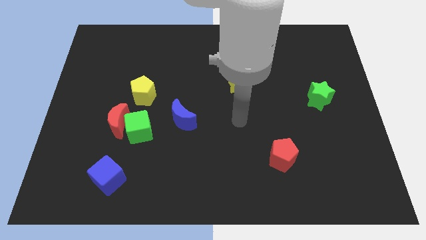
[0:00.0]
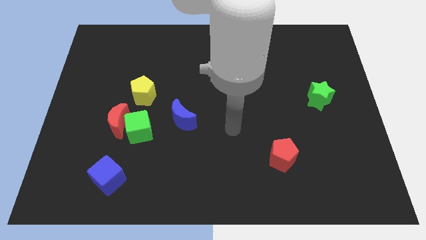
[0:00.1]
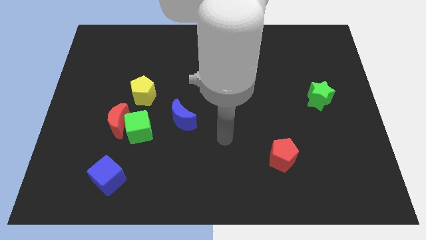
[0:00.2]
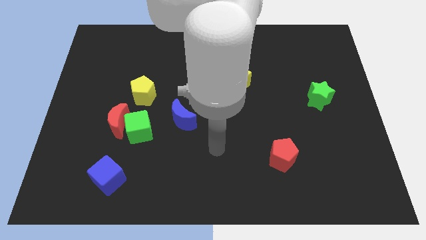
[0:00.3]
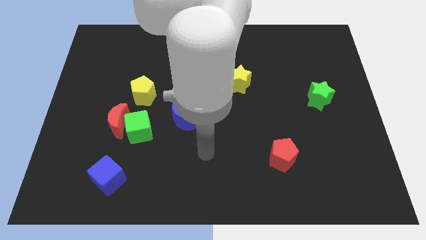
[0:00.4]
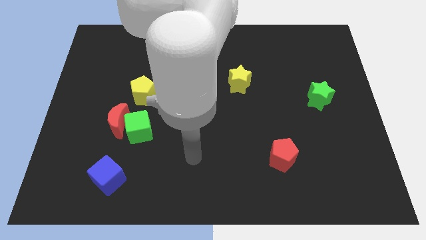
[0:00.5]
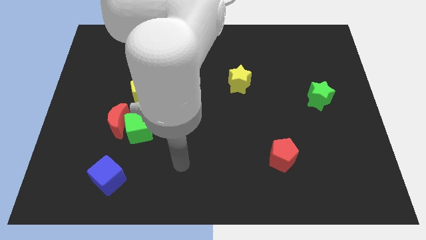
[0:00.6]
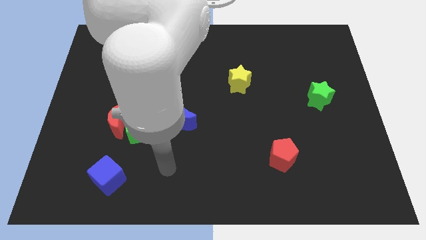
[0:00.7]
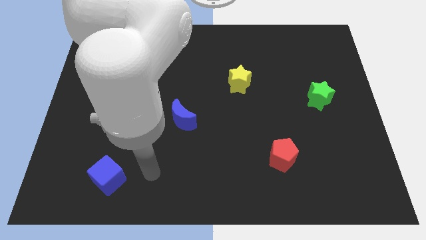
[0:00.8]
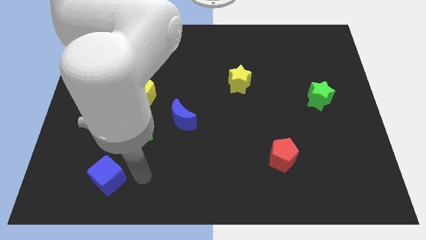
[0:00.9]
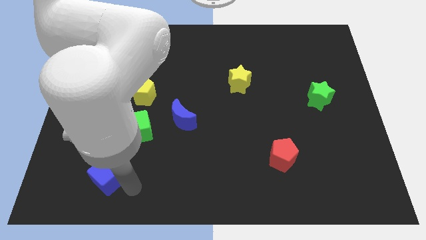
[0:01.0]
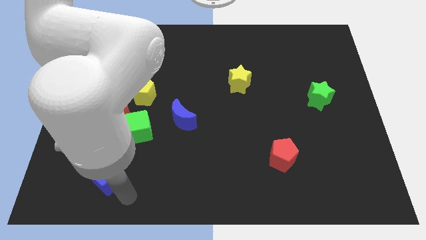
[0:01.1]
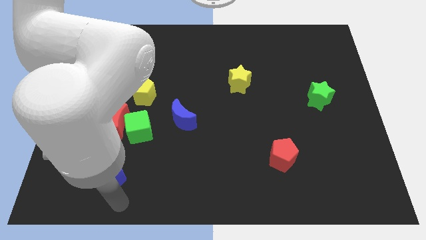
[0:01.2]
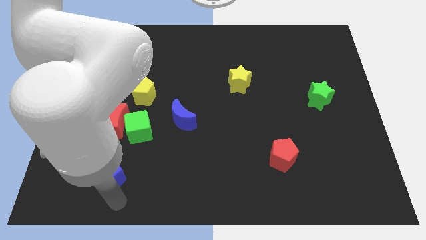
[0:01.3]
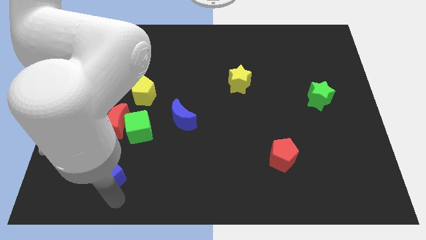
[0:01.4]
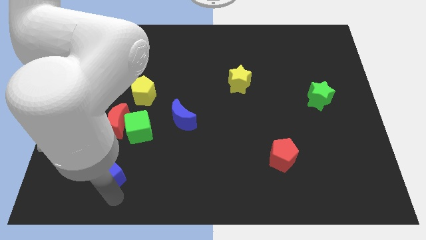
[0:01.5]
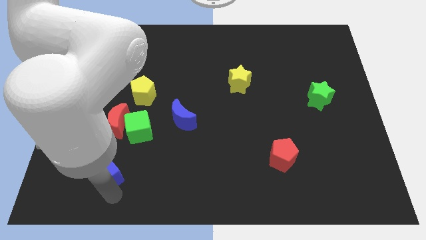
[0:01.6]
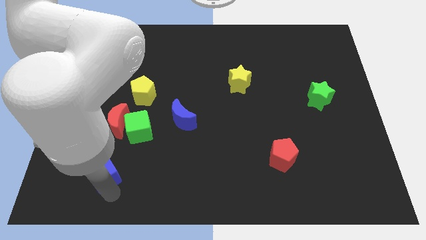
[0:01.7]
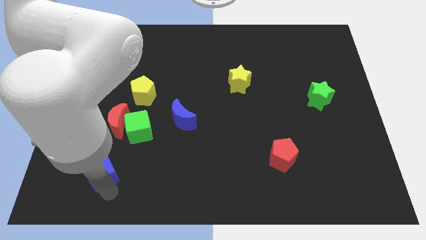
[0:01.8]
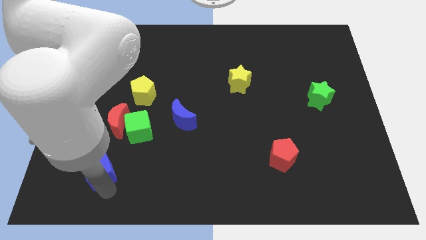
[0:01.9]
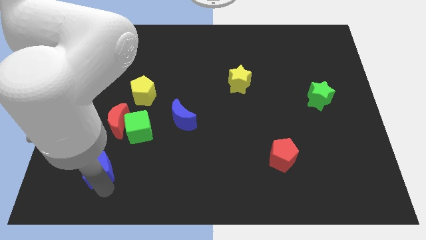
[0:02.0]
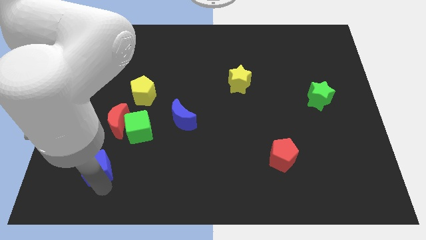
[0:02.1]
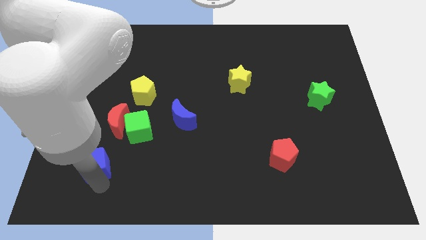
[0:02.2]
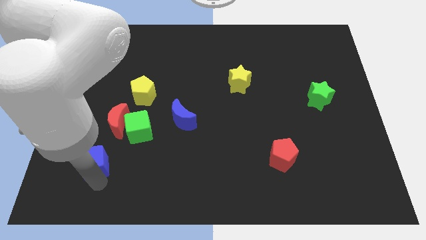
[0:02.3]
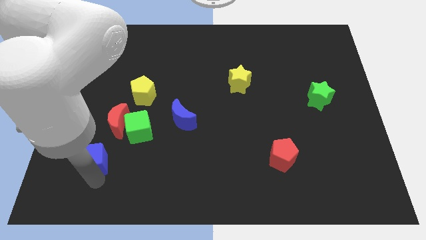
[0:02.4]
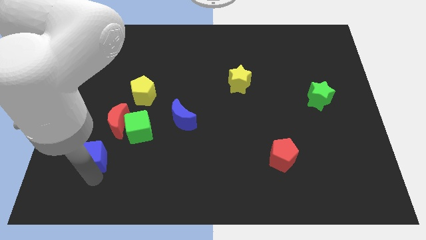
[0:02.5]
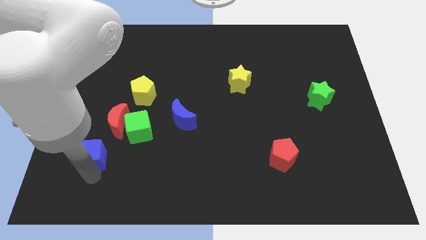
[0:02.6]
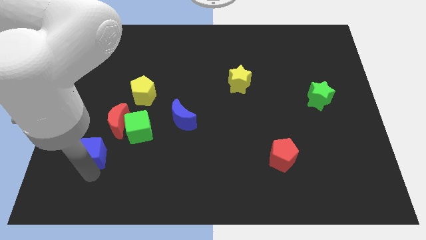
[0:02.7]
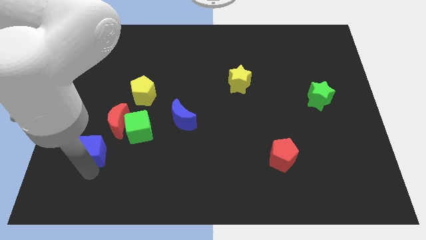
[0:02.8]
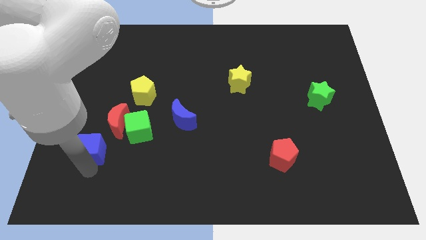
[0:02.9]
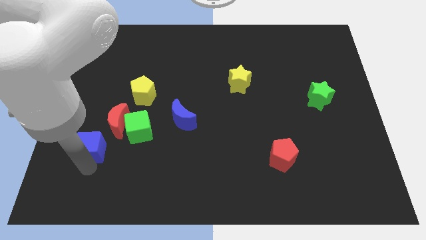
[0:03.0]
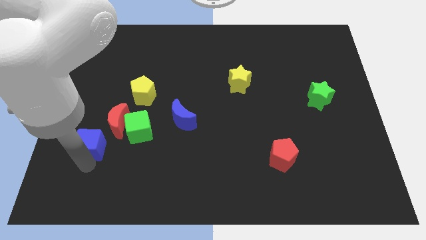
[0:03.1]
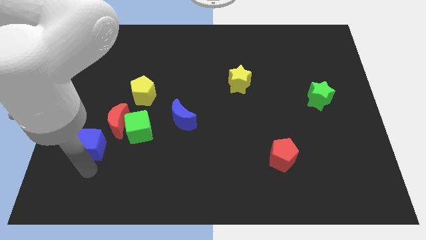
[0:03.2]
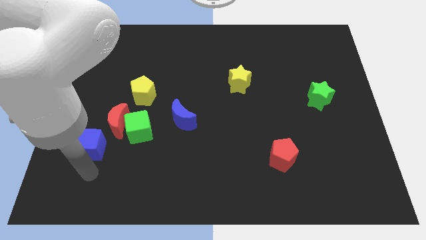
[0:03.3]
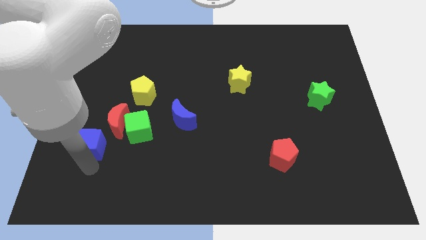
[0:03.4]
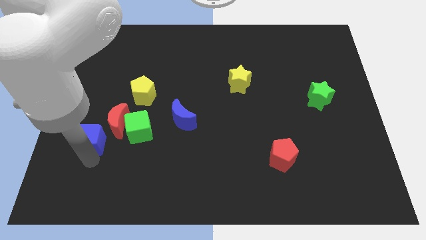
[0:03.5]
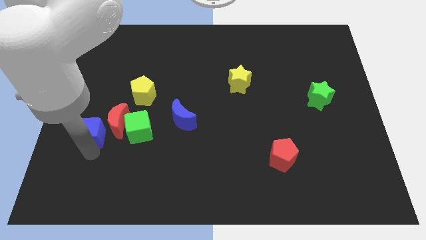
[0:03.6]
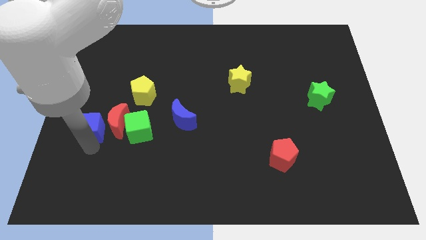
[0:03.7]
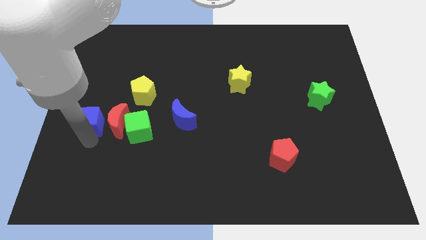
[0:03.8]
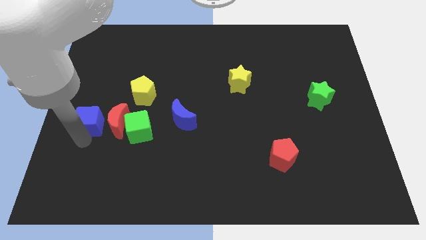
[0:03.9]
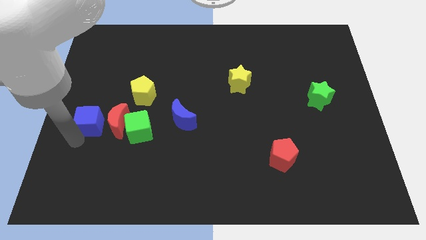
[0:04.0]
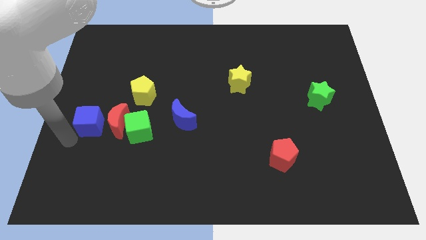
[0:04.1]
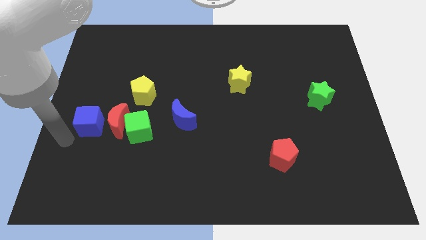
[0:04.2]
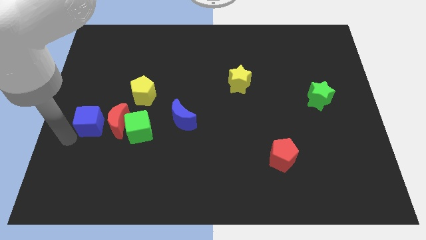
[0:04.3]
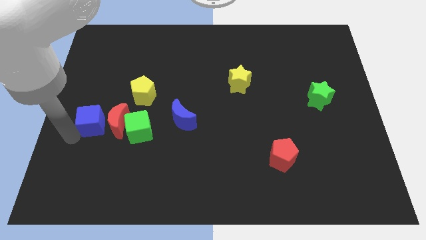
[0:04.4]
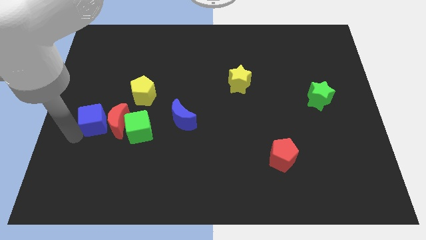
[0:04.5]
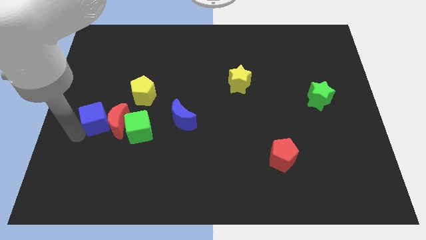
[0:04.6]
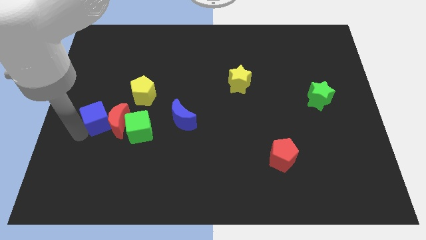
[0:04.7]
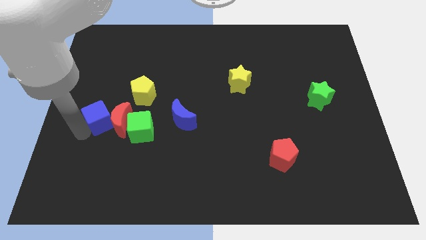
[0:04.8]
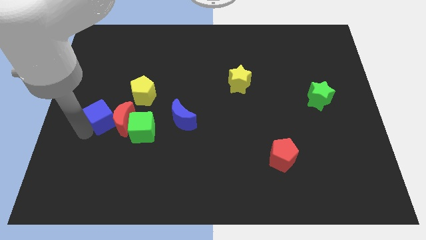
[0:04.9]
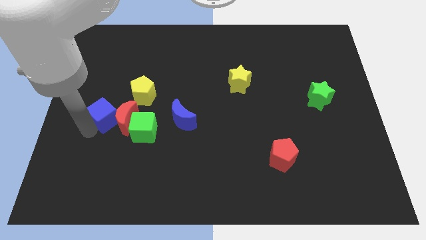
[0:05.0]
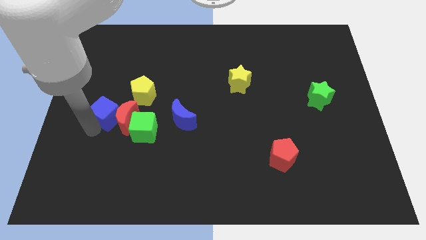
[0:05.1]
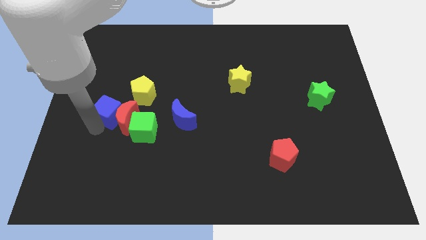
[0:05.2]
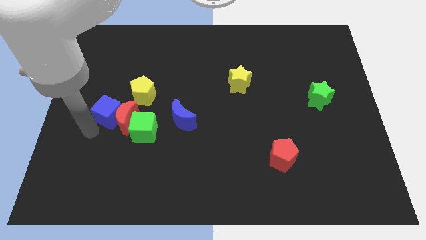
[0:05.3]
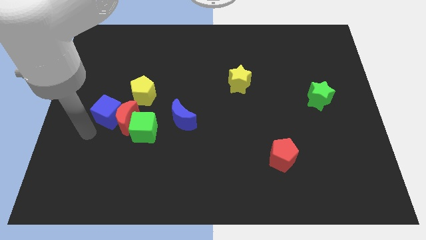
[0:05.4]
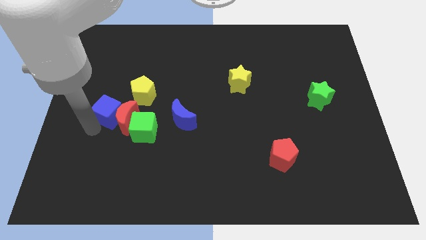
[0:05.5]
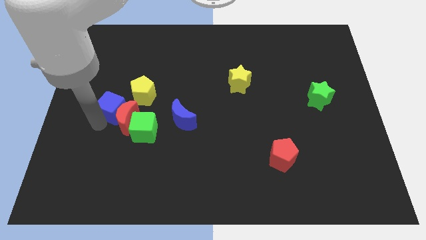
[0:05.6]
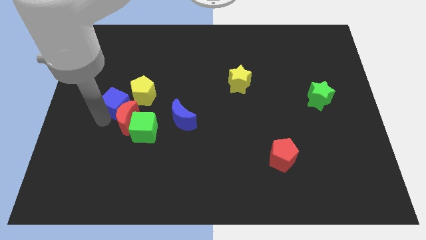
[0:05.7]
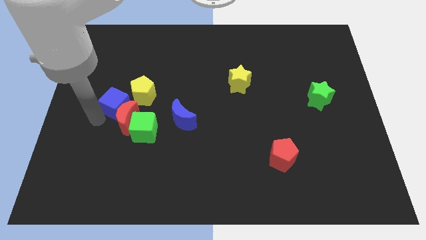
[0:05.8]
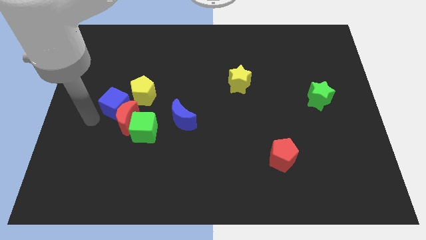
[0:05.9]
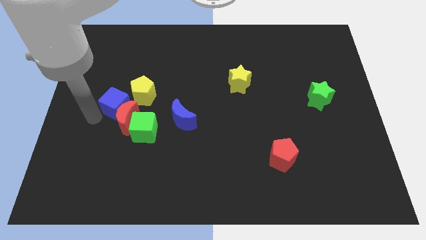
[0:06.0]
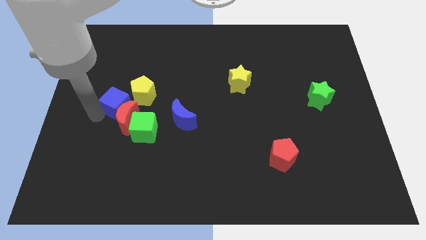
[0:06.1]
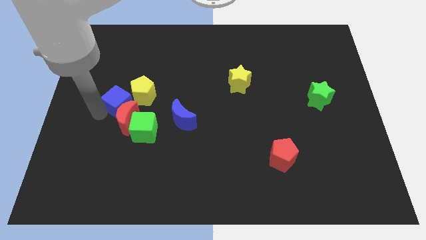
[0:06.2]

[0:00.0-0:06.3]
move the blue cube close to the yellow pentagon

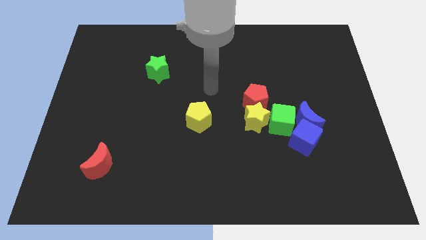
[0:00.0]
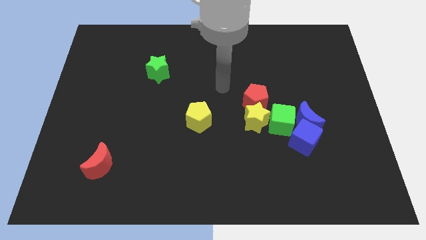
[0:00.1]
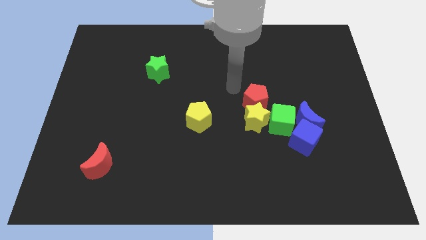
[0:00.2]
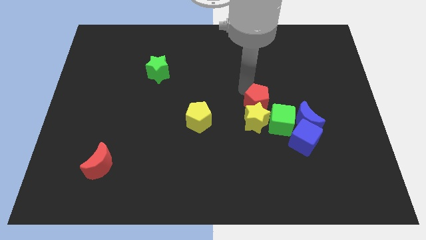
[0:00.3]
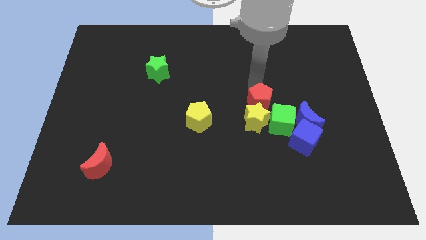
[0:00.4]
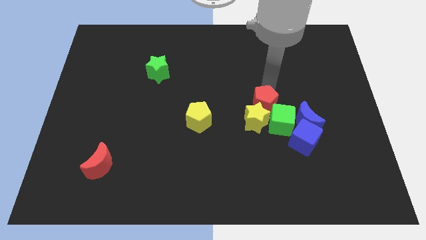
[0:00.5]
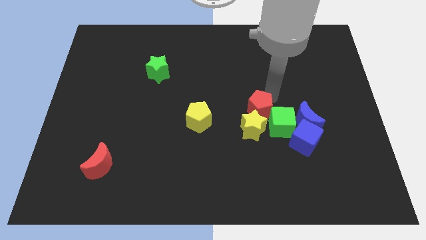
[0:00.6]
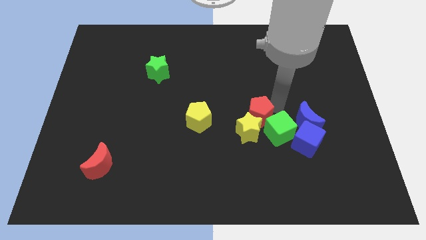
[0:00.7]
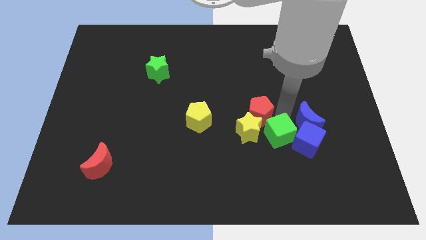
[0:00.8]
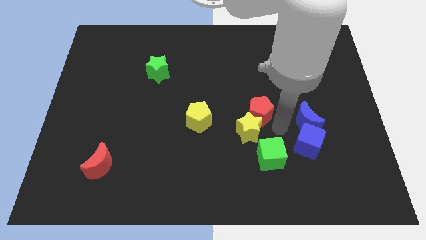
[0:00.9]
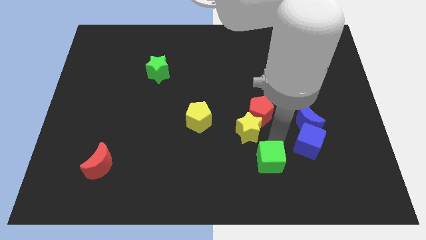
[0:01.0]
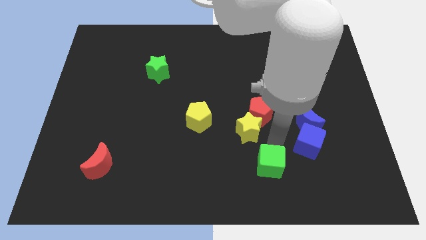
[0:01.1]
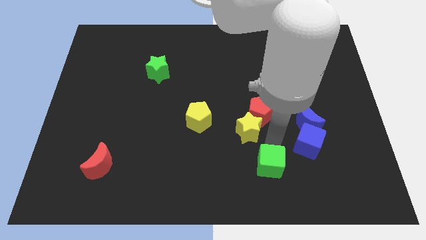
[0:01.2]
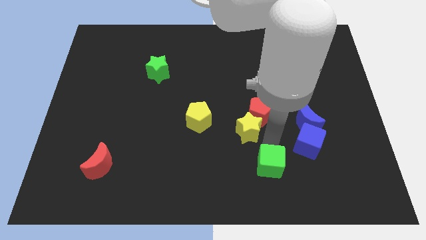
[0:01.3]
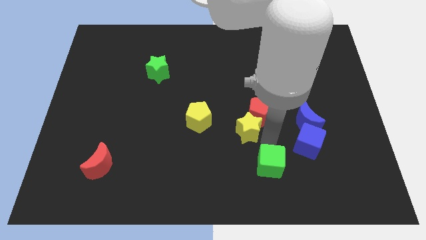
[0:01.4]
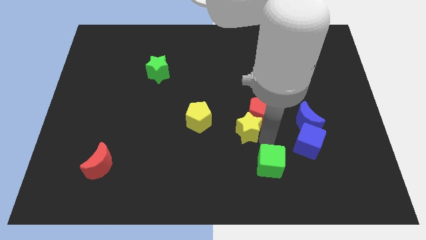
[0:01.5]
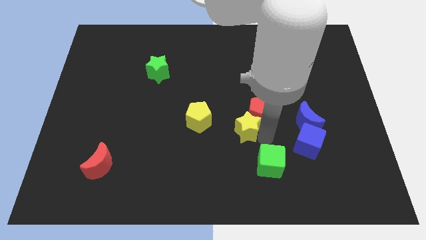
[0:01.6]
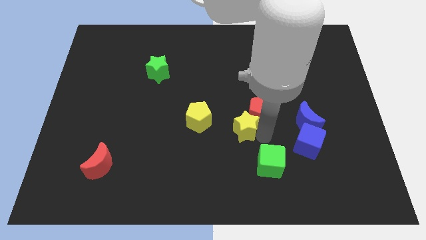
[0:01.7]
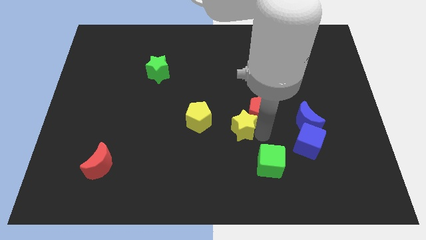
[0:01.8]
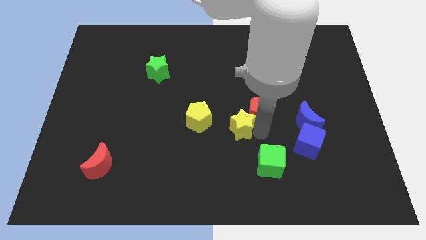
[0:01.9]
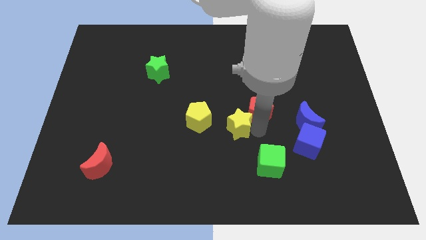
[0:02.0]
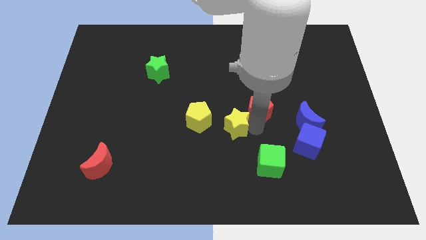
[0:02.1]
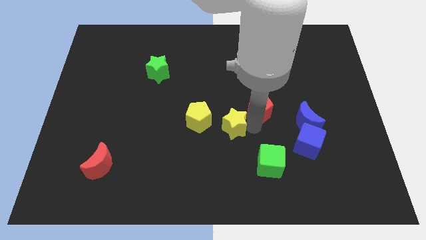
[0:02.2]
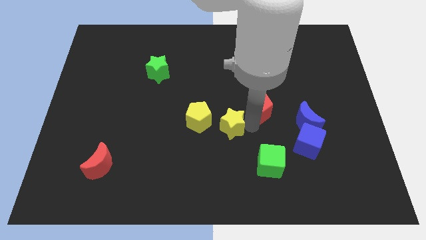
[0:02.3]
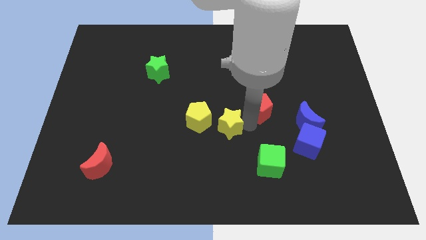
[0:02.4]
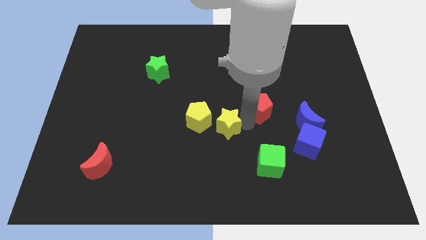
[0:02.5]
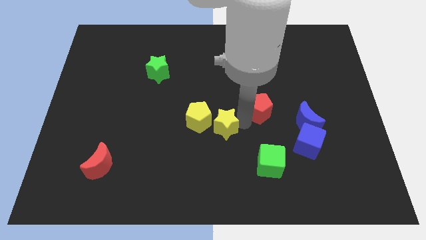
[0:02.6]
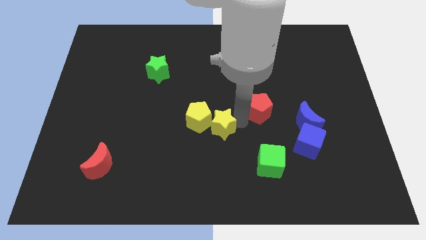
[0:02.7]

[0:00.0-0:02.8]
put the yellow star to the yellow pentagon
